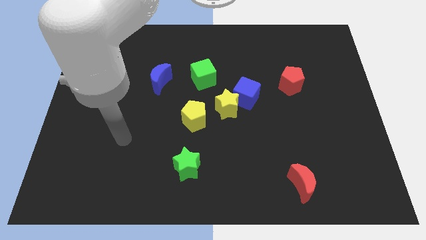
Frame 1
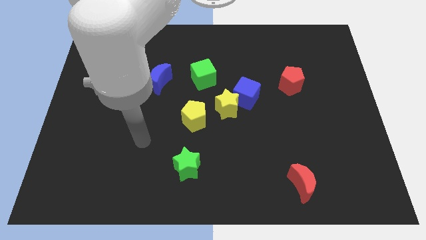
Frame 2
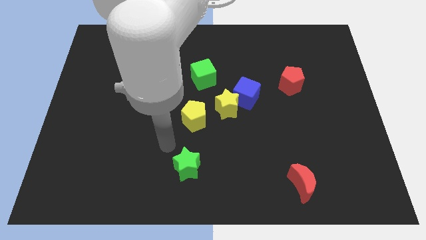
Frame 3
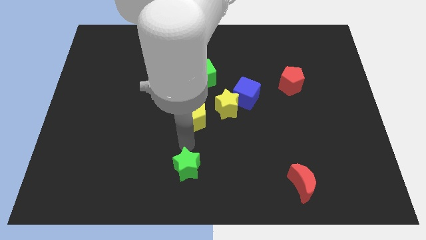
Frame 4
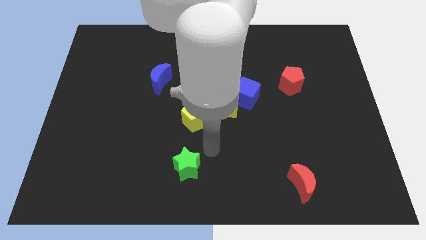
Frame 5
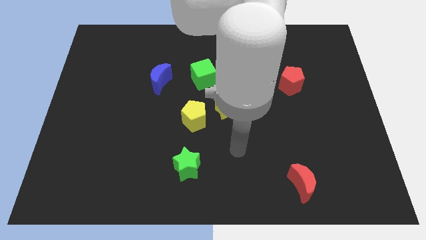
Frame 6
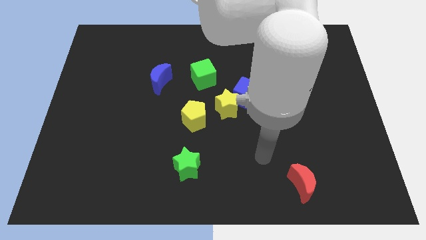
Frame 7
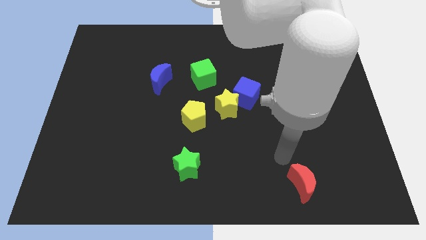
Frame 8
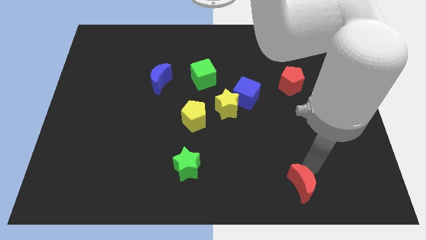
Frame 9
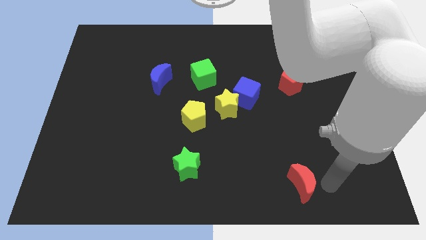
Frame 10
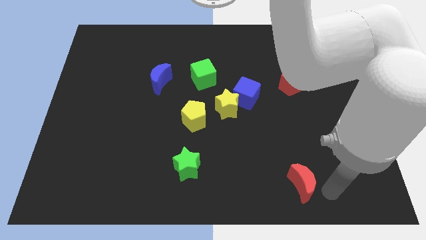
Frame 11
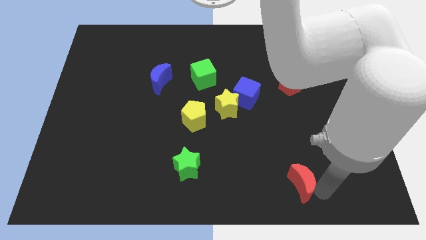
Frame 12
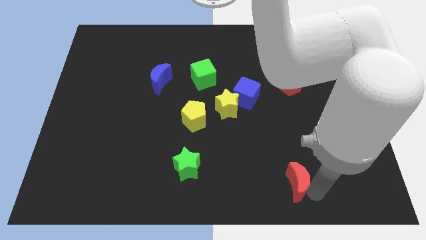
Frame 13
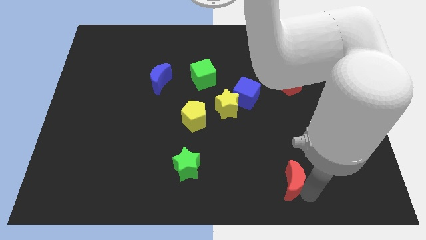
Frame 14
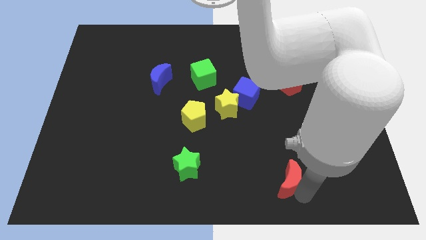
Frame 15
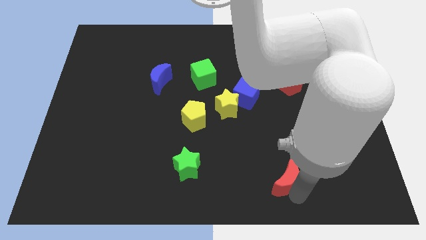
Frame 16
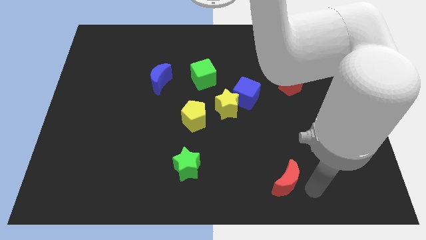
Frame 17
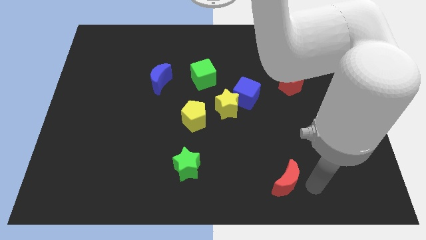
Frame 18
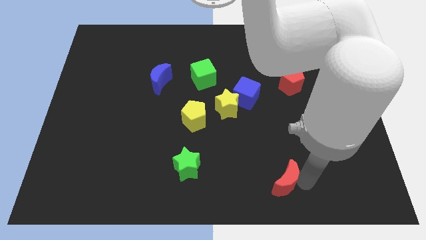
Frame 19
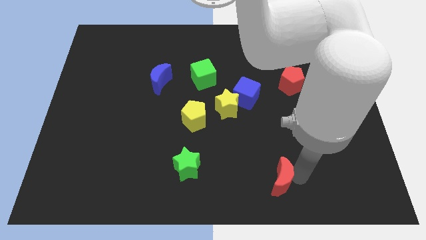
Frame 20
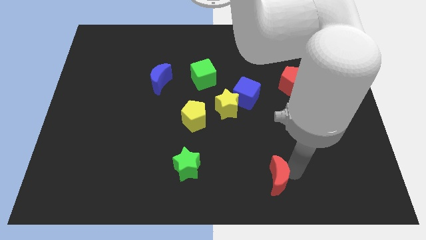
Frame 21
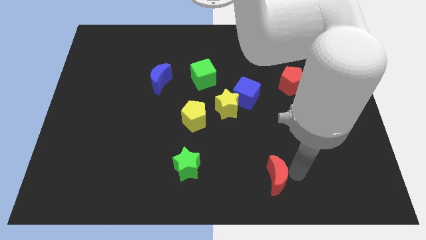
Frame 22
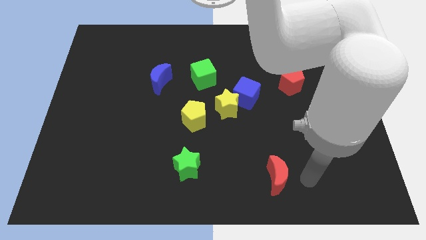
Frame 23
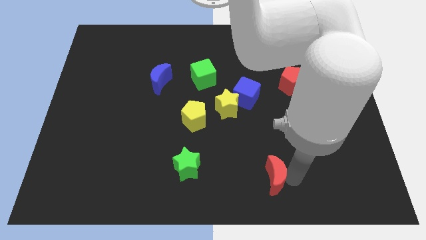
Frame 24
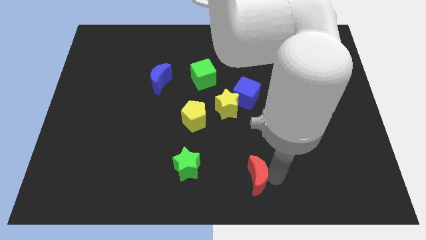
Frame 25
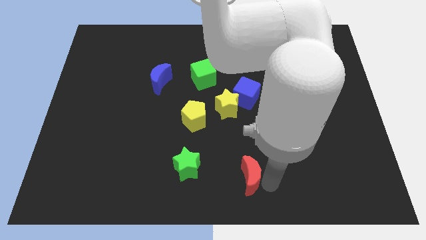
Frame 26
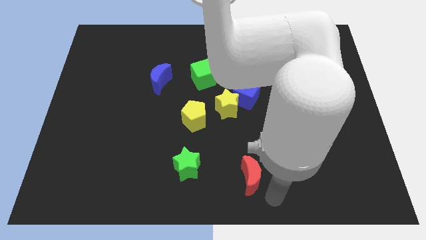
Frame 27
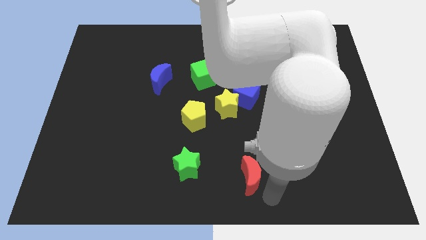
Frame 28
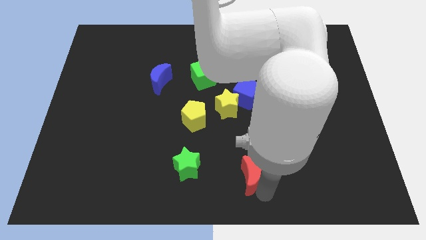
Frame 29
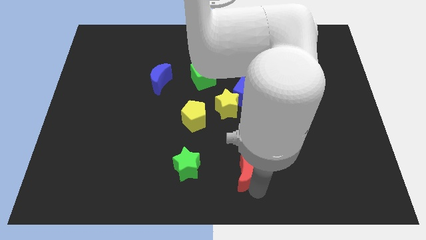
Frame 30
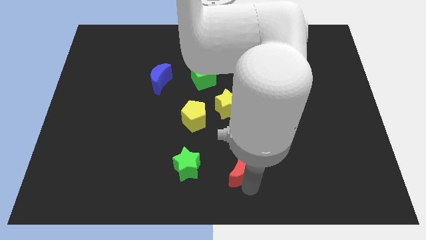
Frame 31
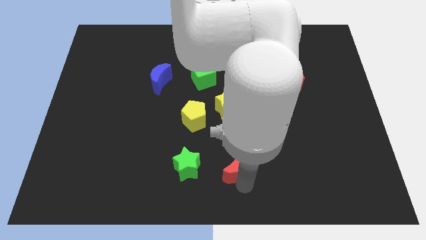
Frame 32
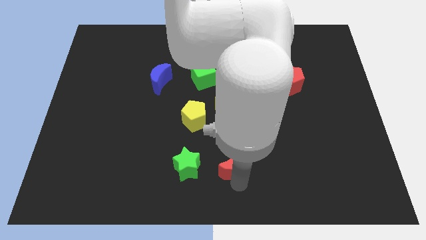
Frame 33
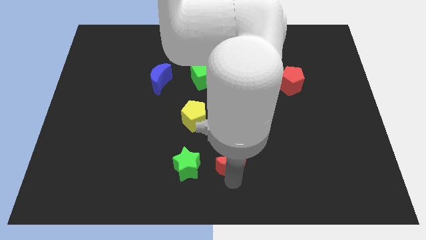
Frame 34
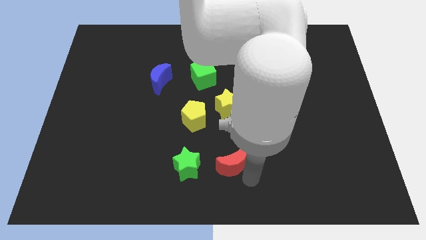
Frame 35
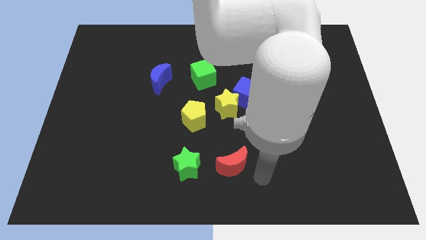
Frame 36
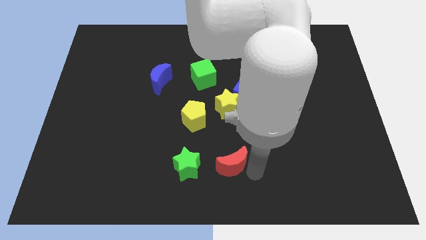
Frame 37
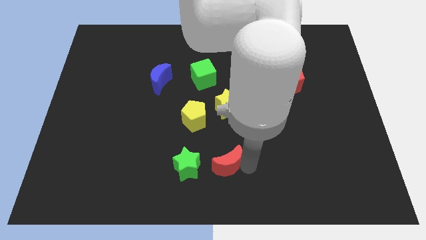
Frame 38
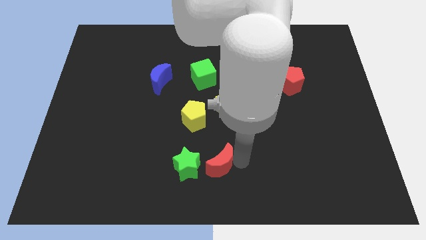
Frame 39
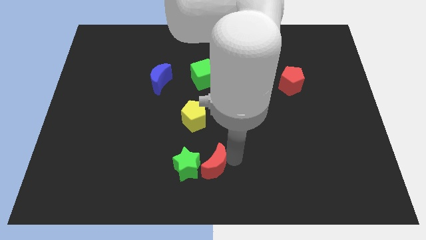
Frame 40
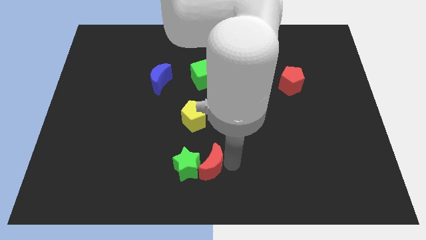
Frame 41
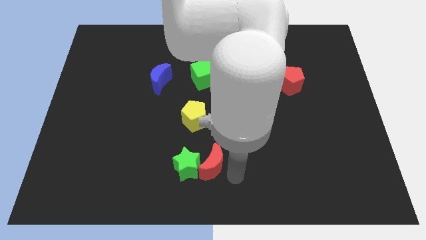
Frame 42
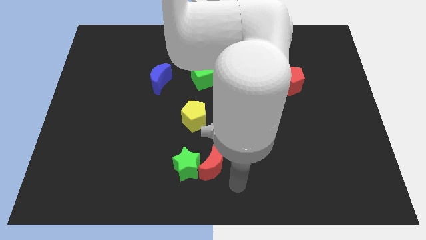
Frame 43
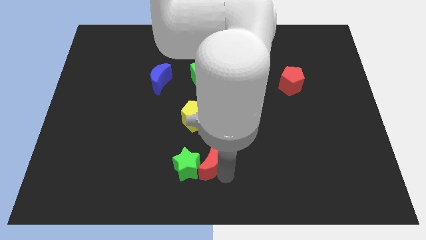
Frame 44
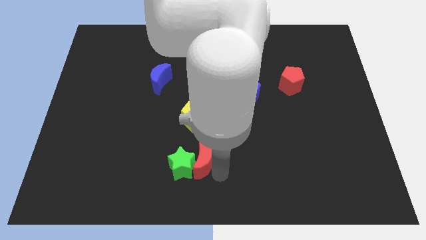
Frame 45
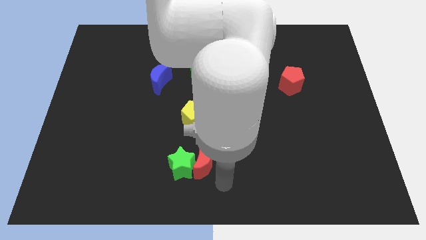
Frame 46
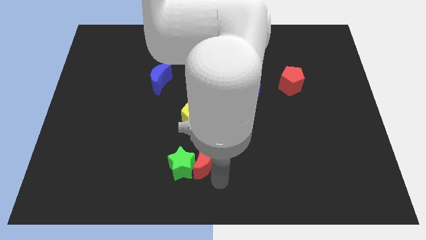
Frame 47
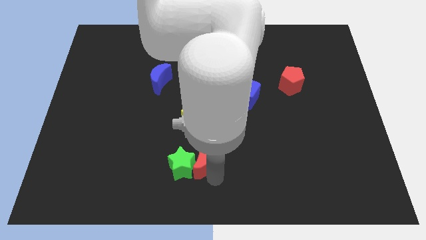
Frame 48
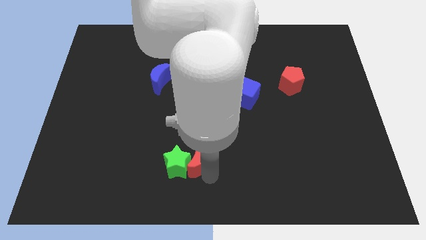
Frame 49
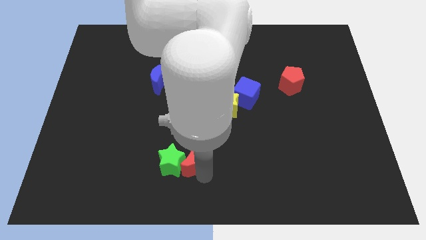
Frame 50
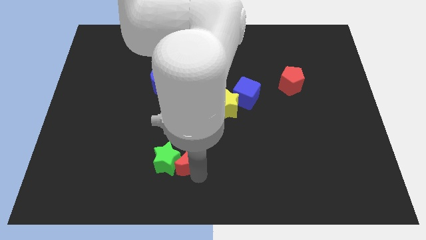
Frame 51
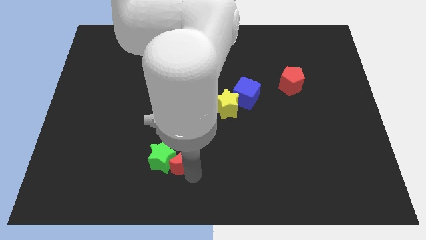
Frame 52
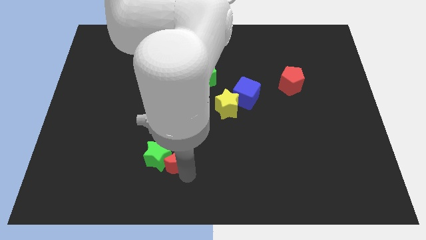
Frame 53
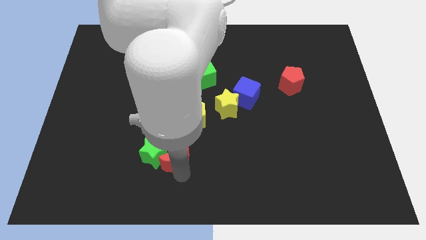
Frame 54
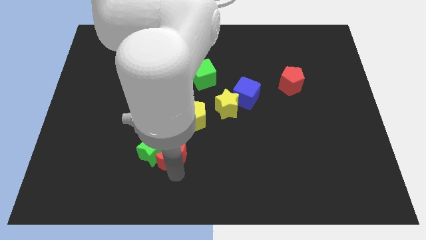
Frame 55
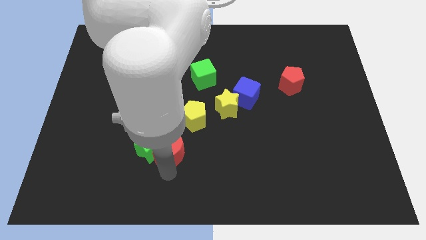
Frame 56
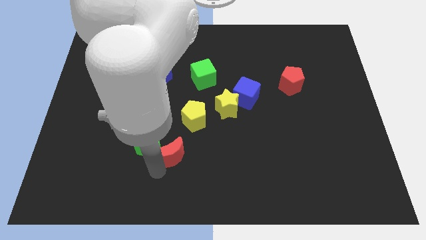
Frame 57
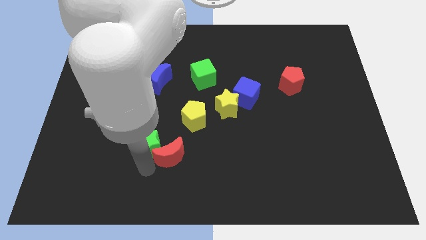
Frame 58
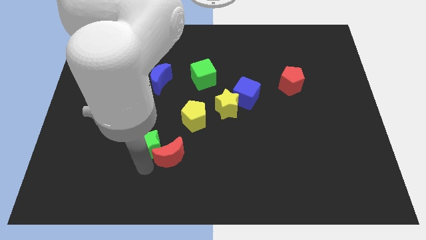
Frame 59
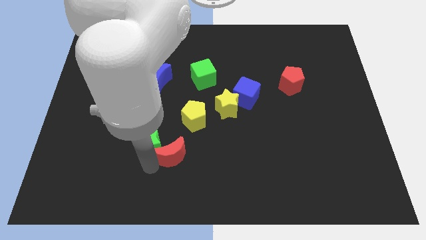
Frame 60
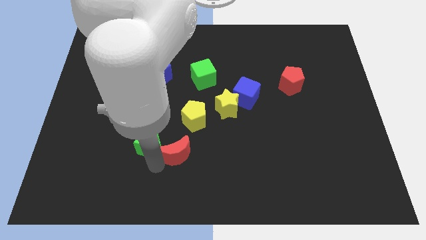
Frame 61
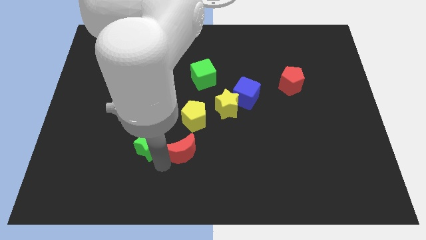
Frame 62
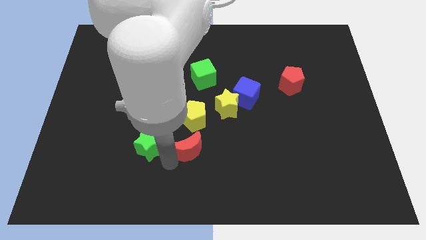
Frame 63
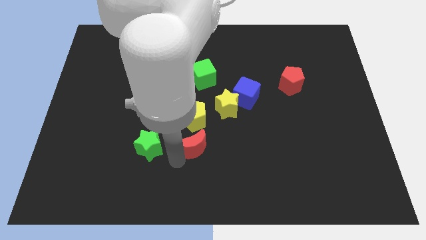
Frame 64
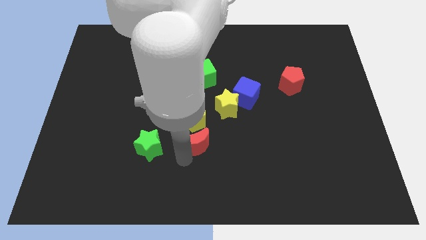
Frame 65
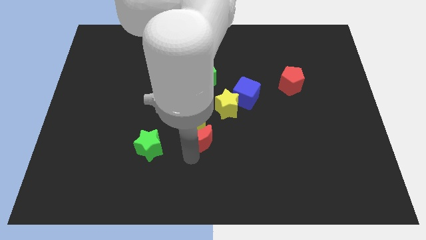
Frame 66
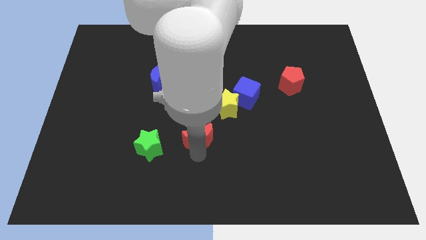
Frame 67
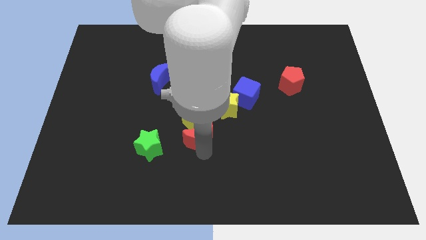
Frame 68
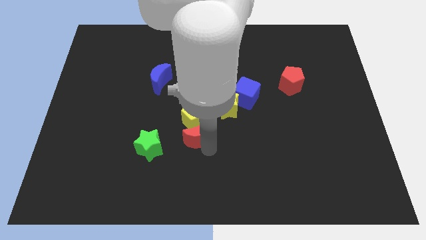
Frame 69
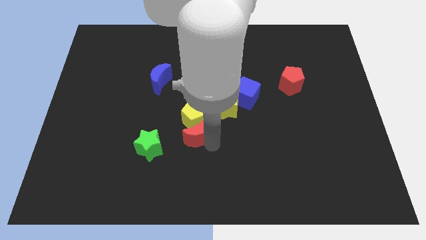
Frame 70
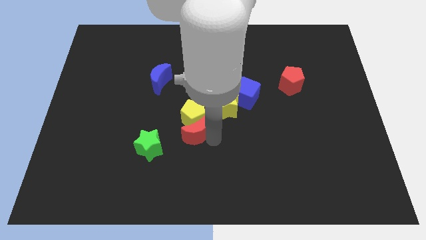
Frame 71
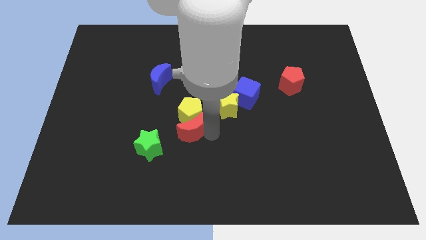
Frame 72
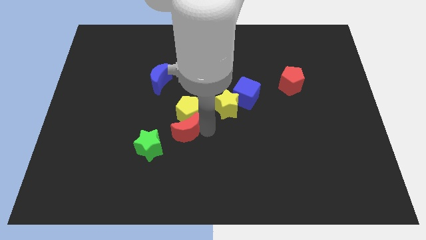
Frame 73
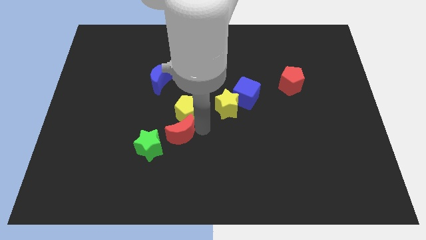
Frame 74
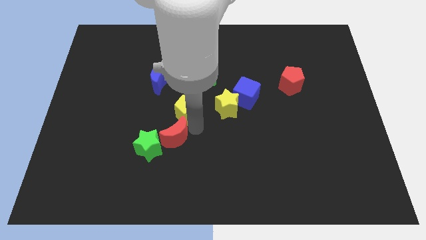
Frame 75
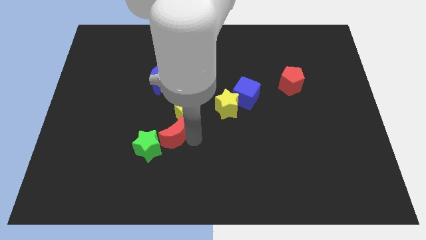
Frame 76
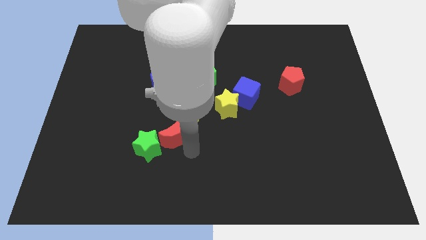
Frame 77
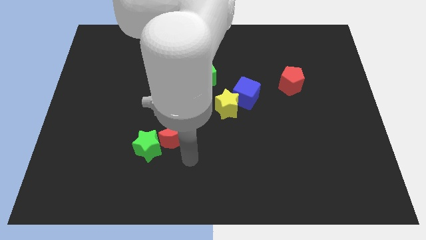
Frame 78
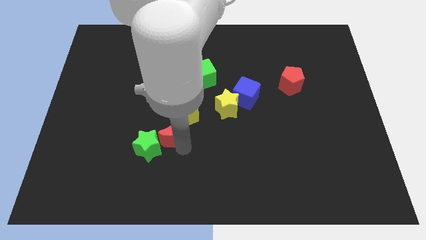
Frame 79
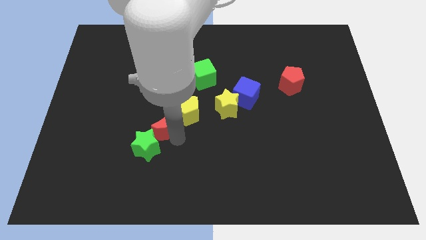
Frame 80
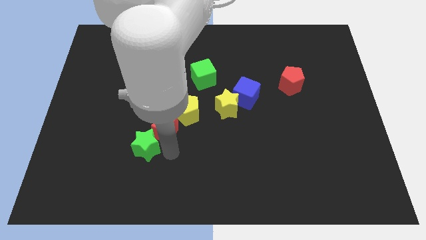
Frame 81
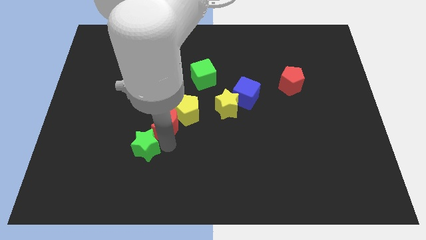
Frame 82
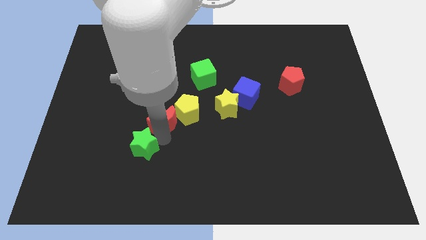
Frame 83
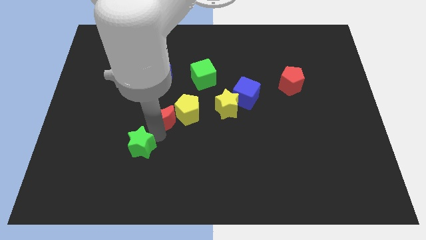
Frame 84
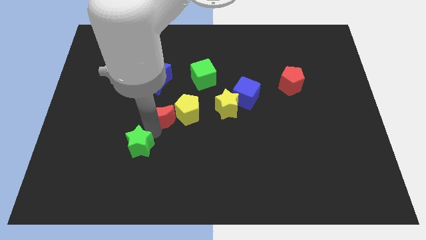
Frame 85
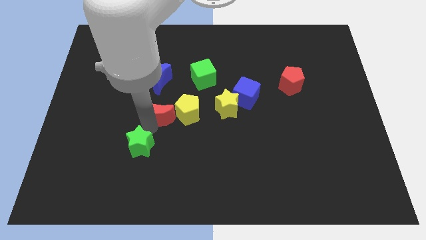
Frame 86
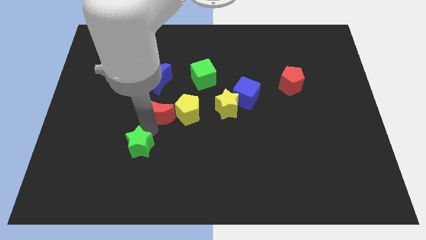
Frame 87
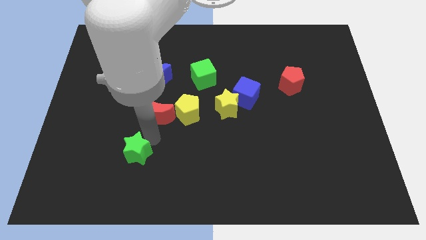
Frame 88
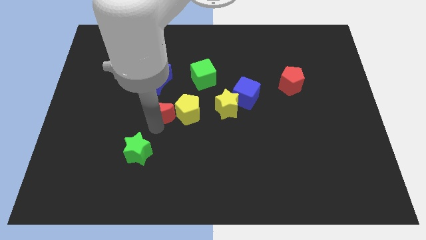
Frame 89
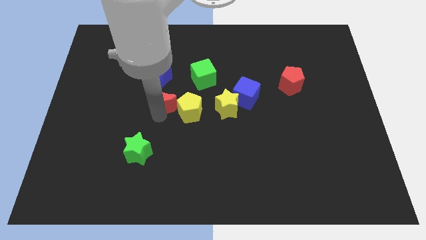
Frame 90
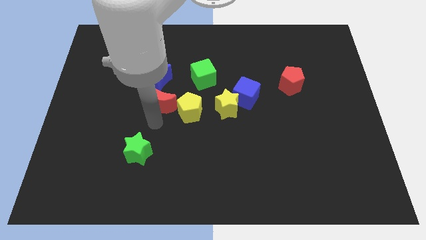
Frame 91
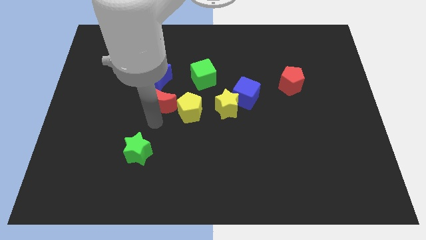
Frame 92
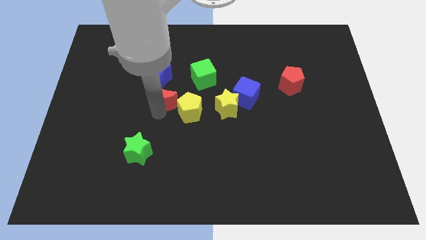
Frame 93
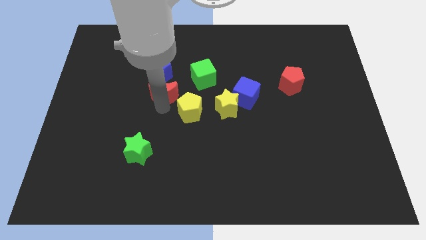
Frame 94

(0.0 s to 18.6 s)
put the red moon close to the blue moon
